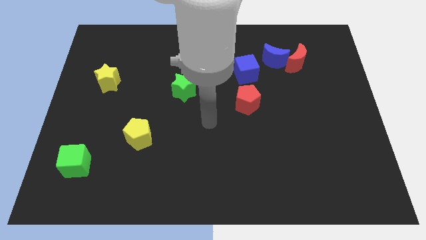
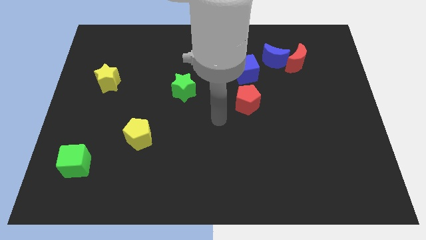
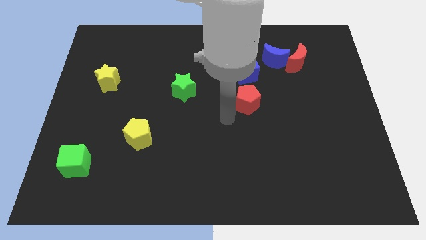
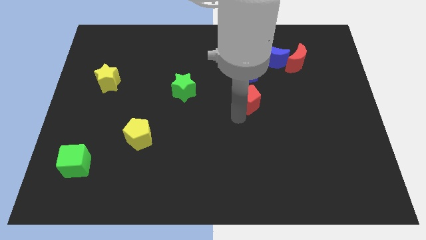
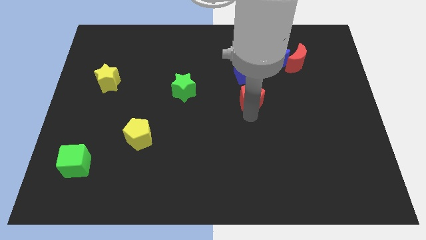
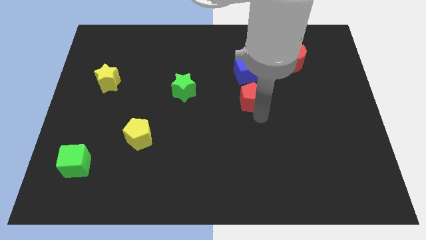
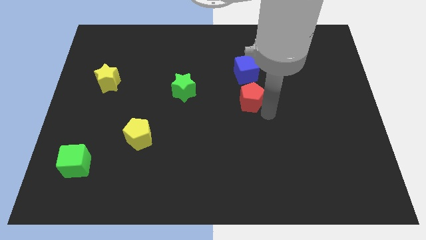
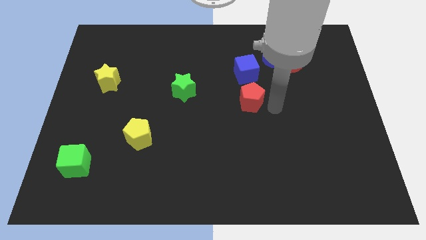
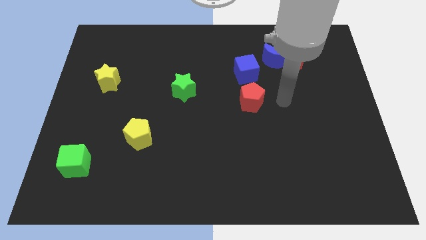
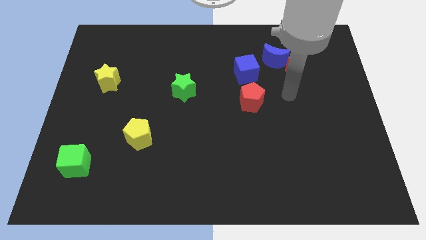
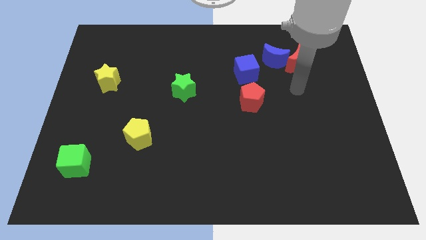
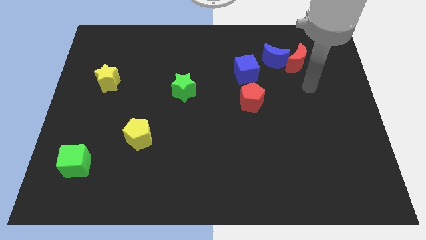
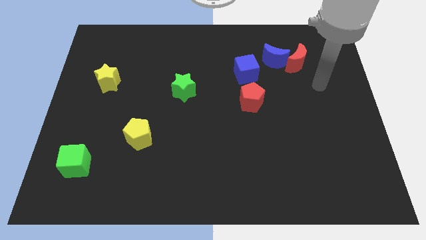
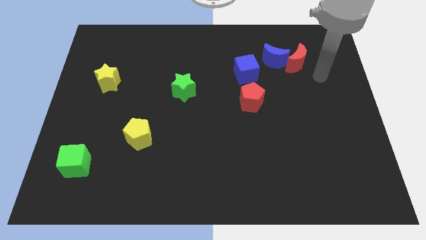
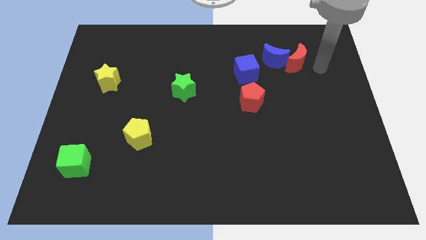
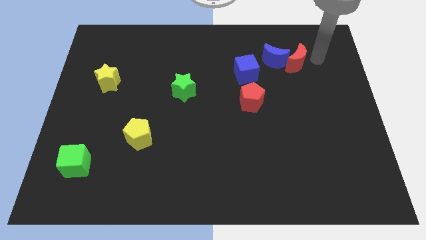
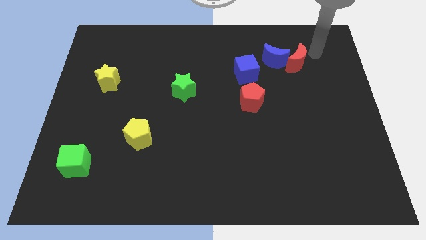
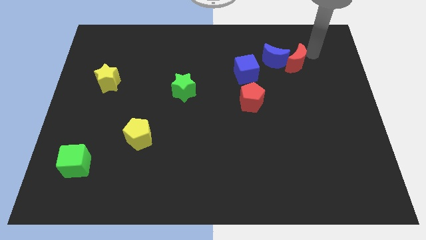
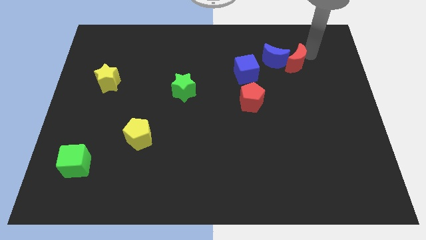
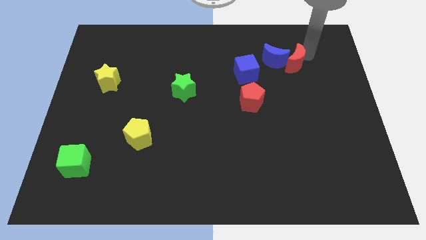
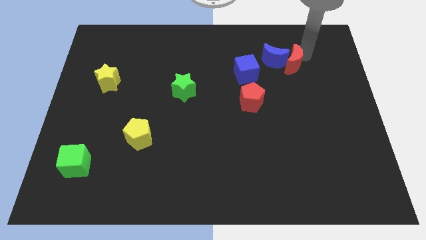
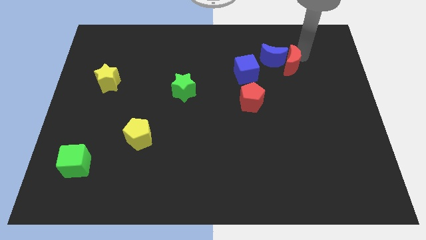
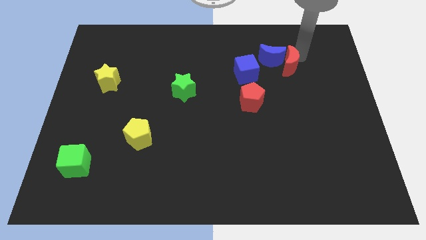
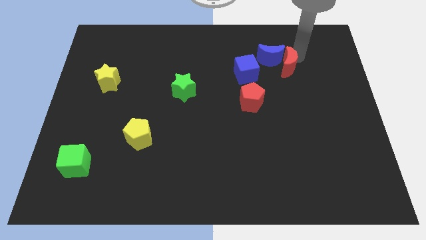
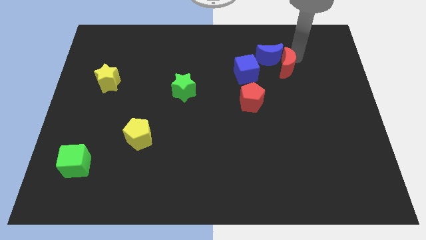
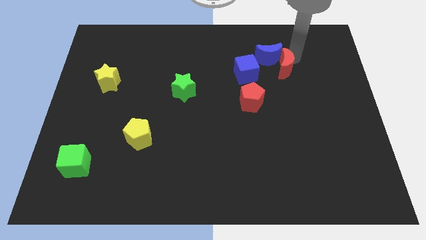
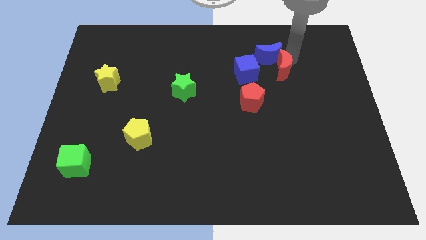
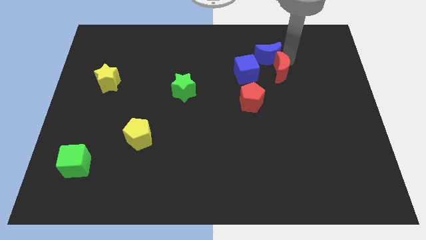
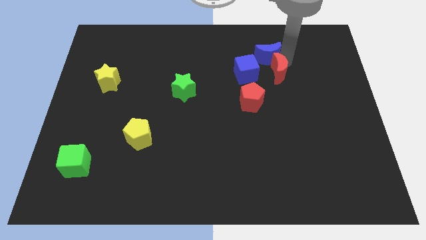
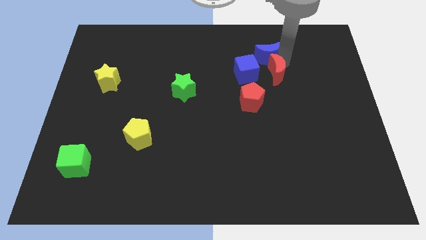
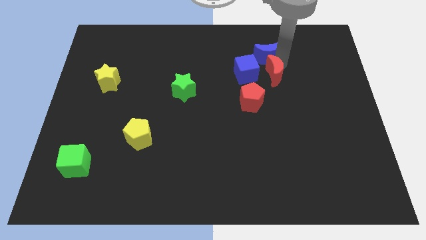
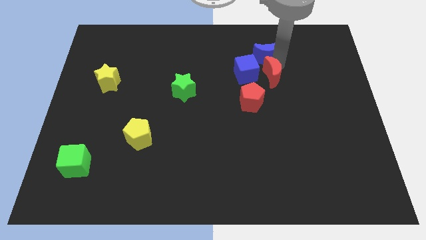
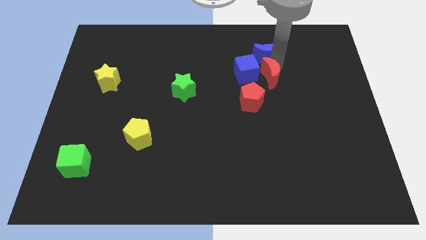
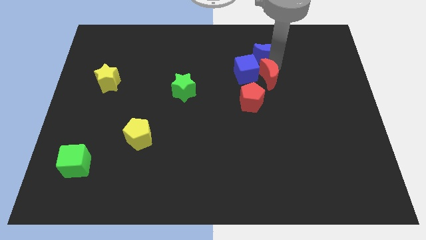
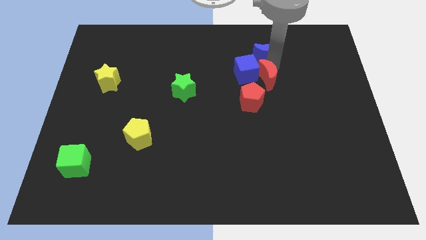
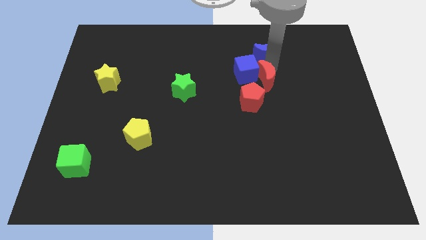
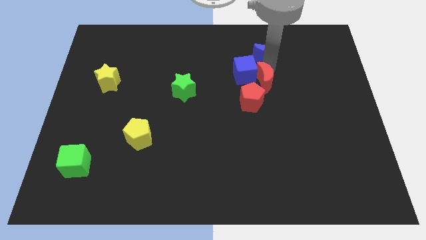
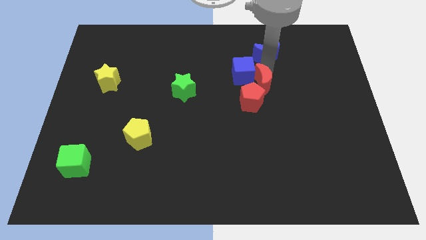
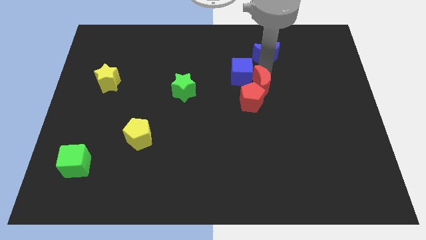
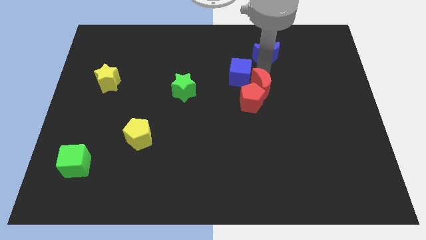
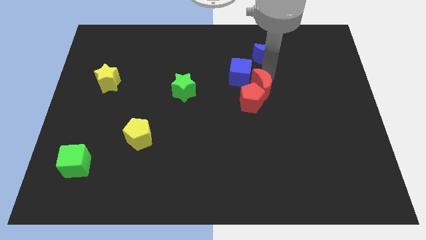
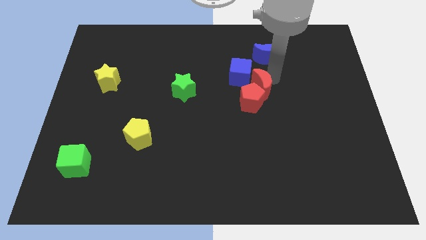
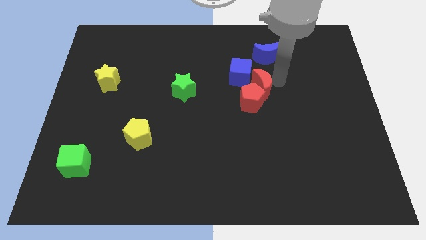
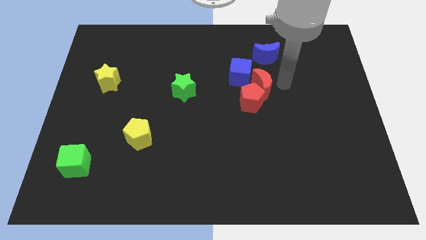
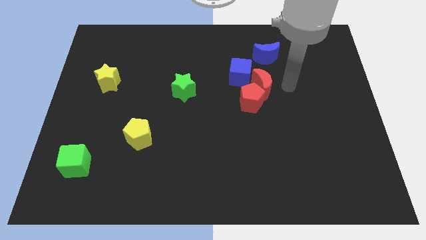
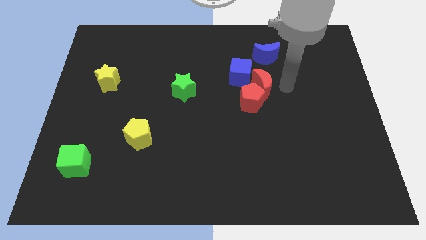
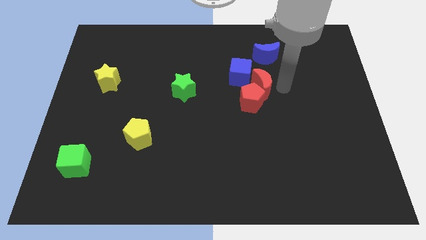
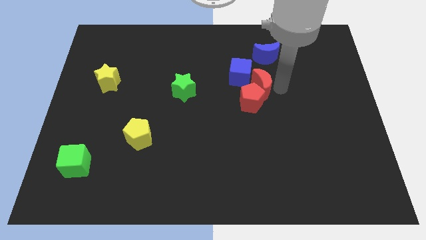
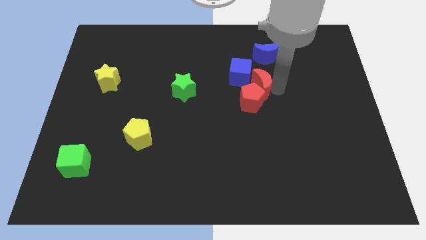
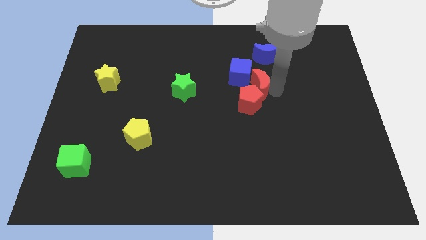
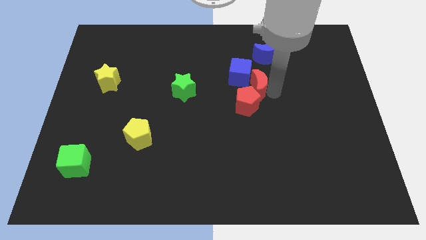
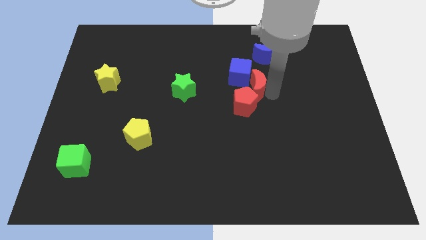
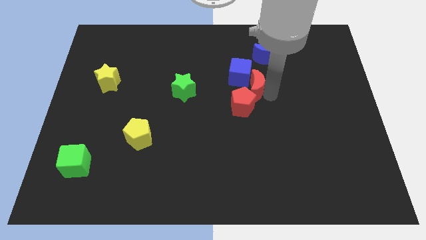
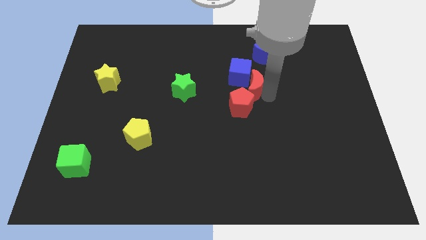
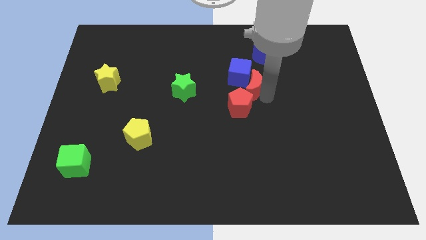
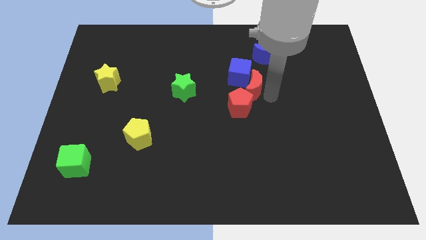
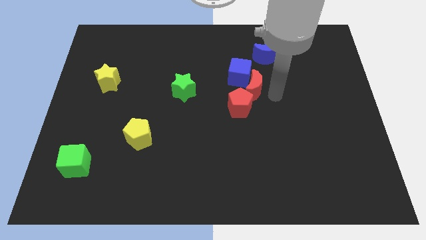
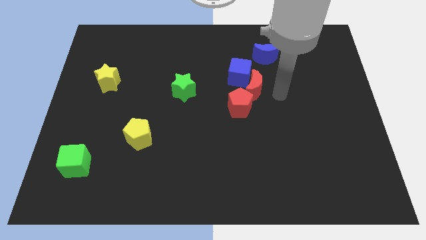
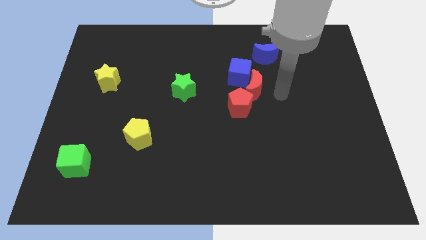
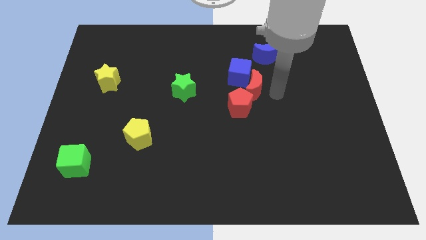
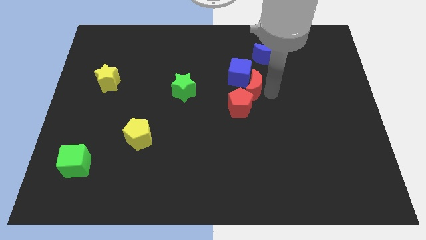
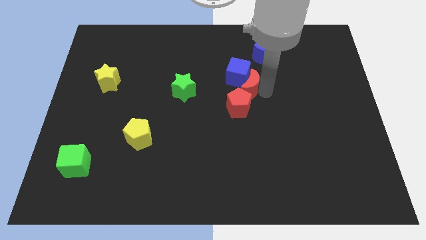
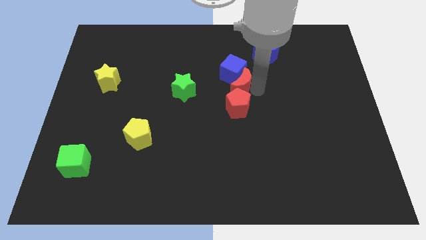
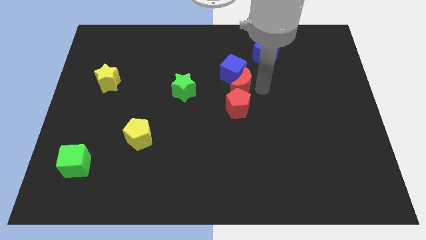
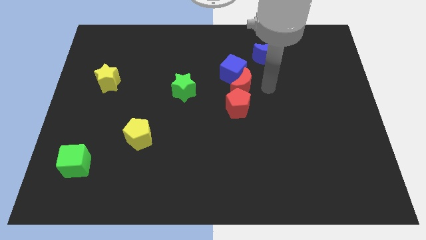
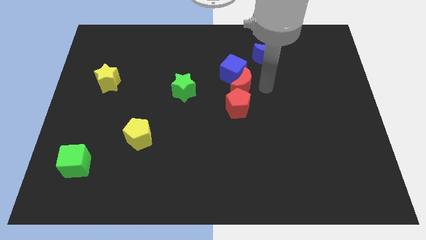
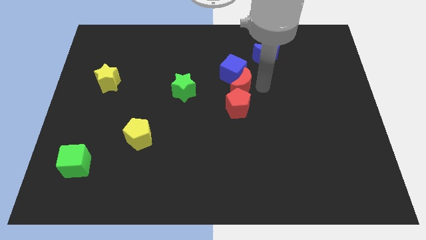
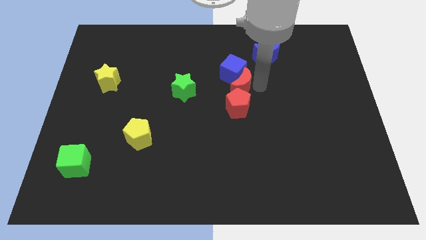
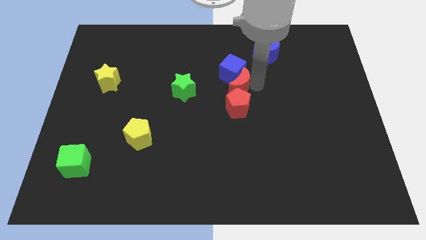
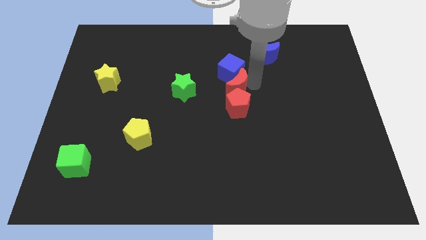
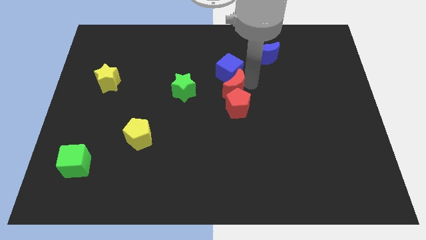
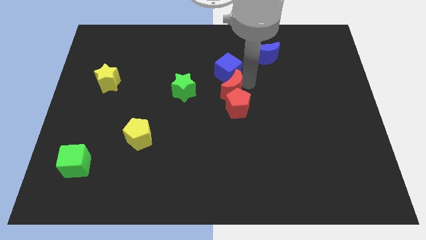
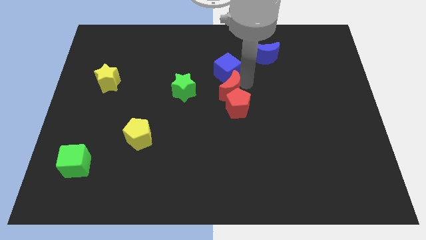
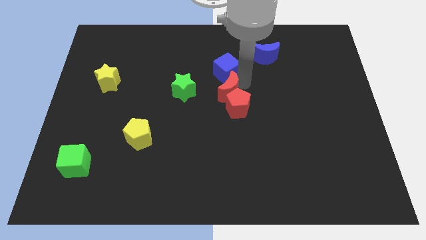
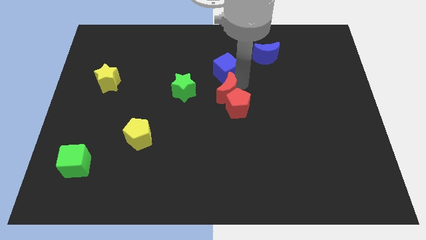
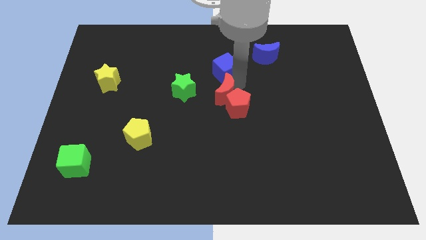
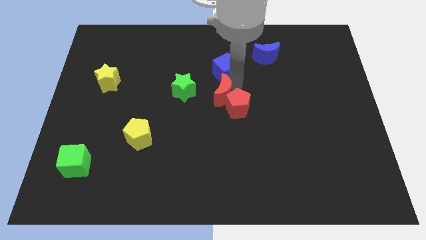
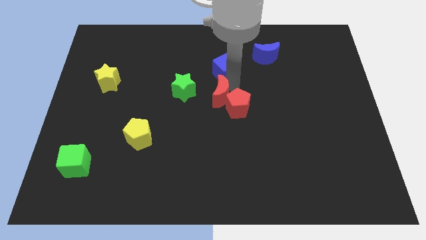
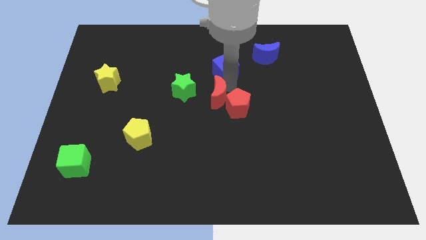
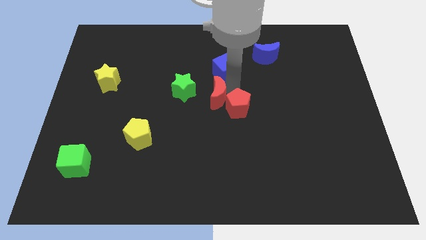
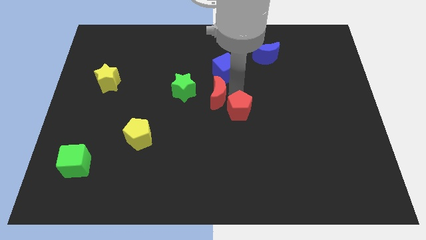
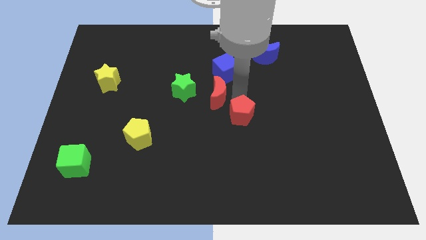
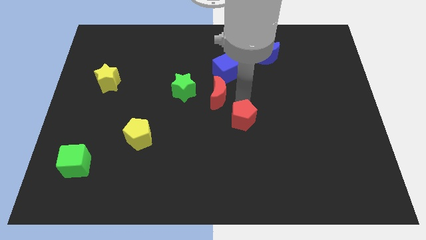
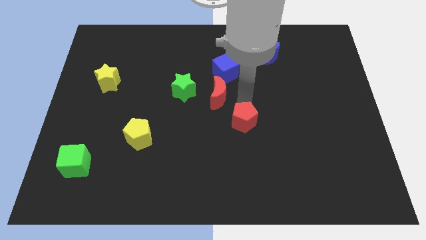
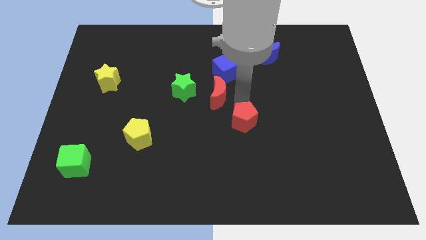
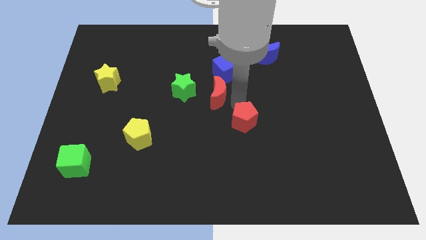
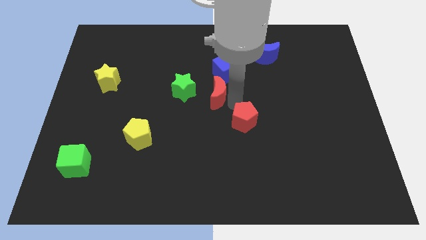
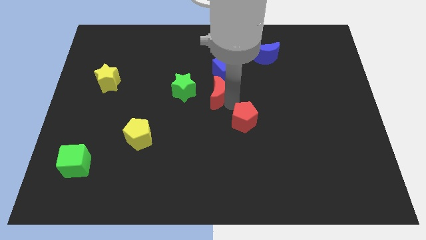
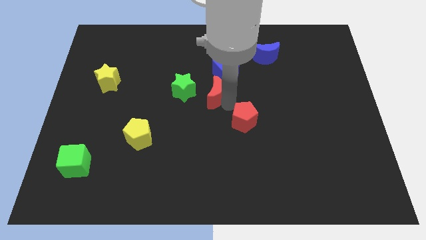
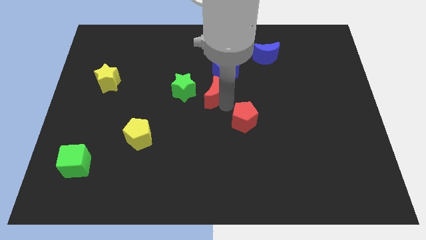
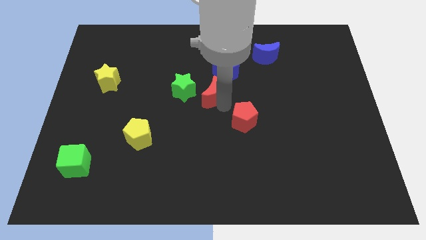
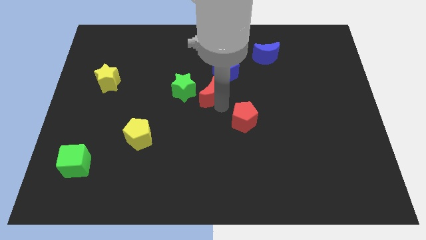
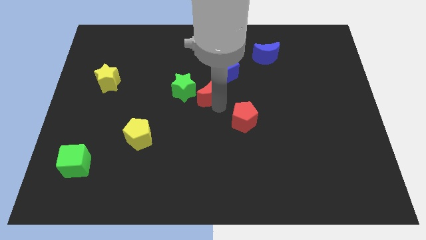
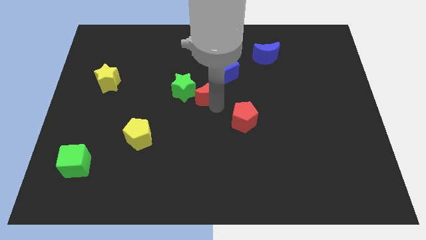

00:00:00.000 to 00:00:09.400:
put the red moon close to the green star
